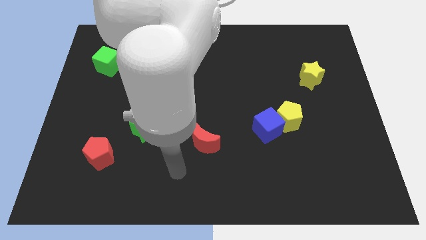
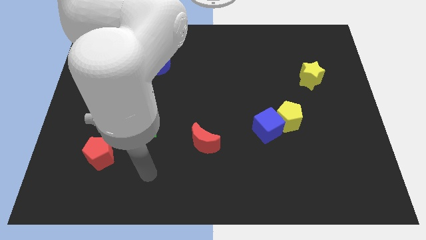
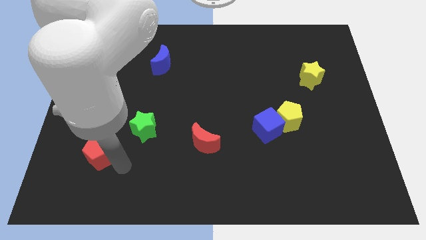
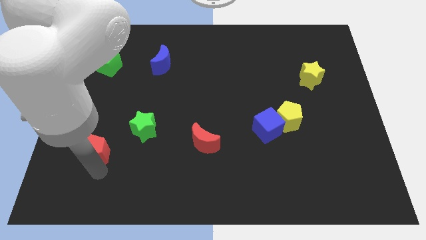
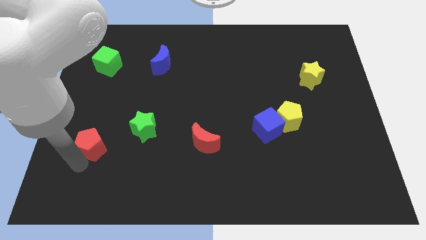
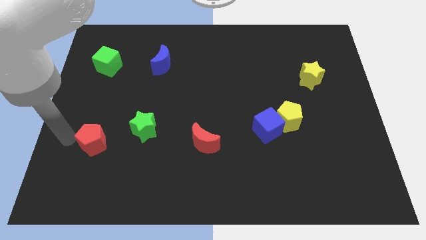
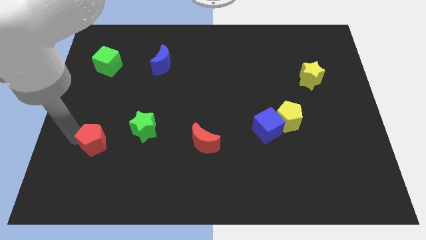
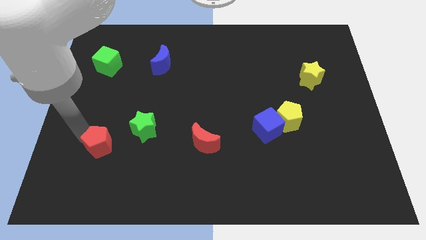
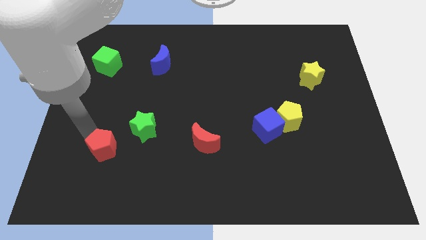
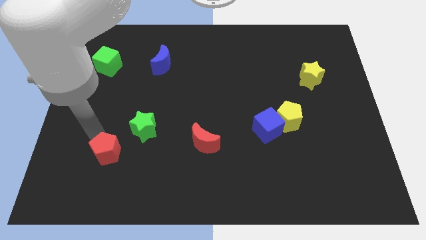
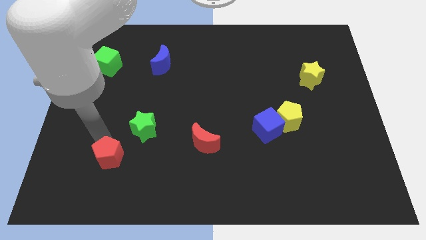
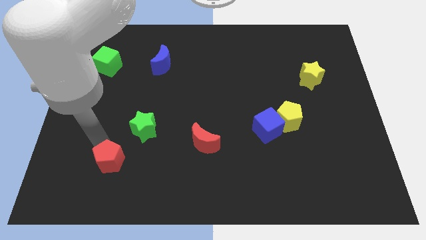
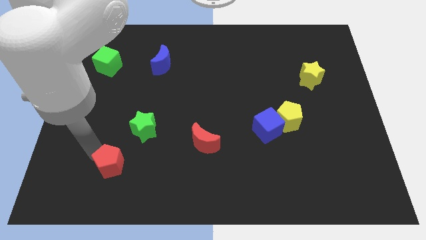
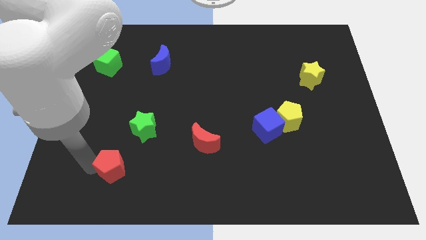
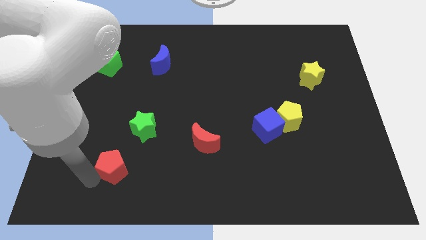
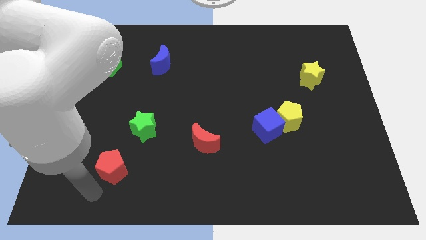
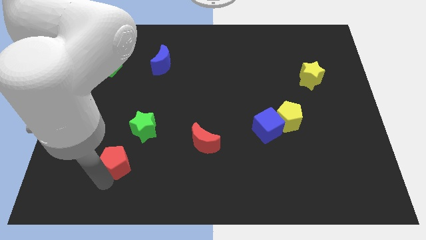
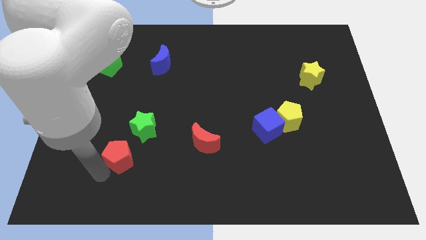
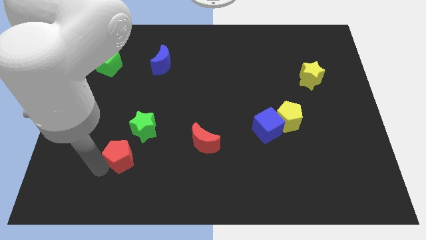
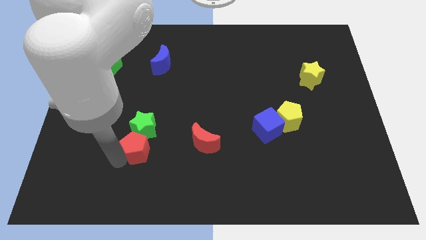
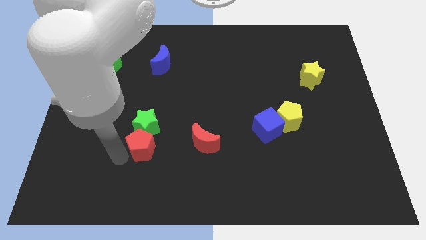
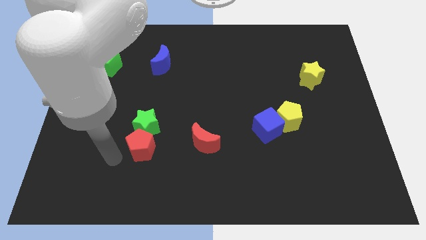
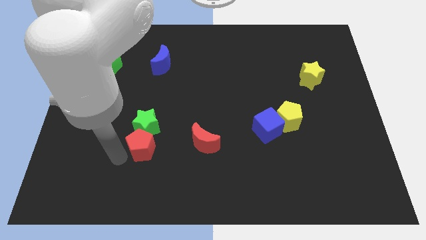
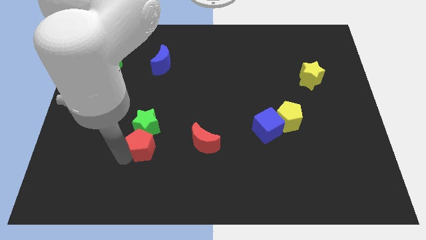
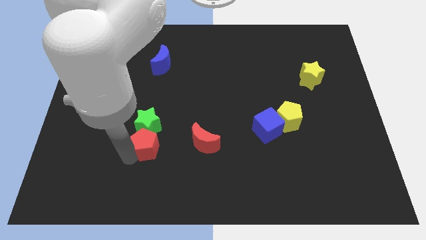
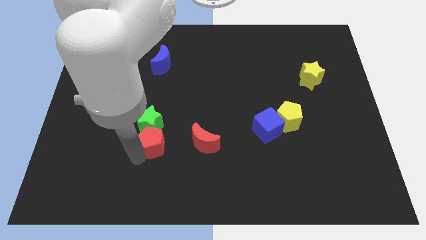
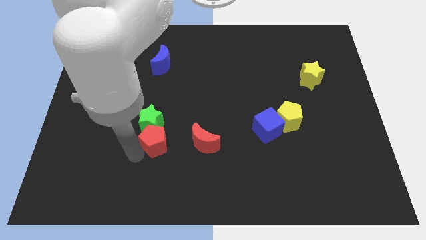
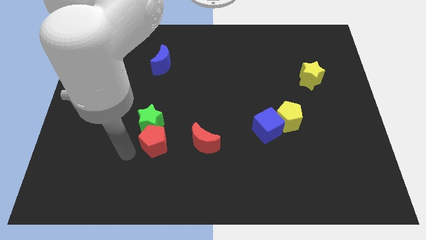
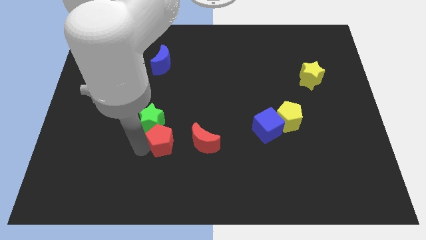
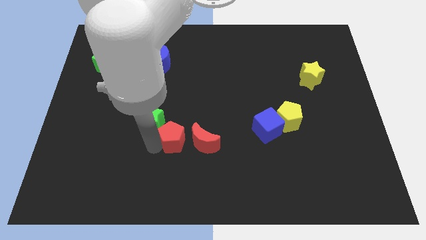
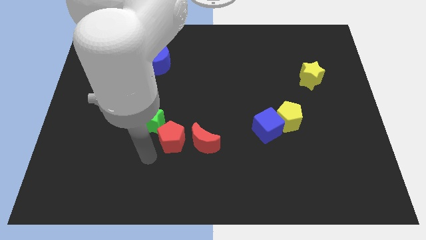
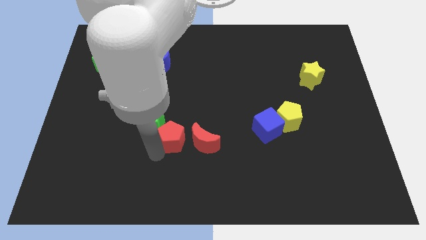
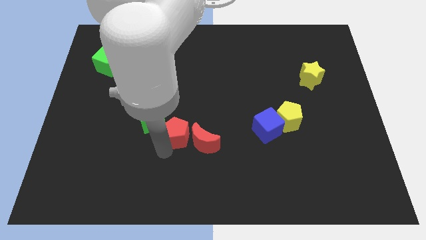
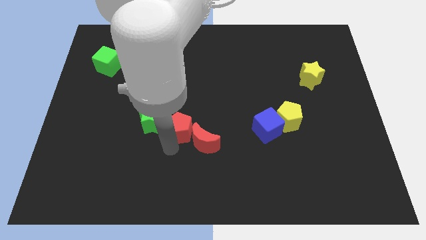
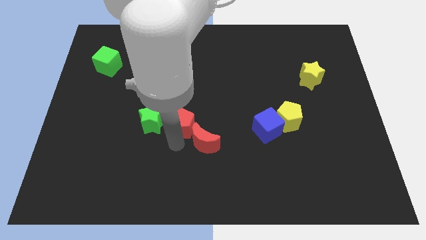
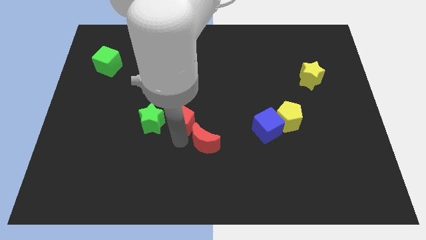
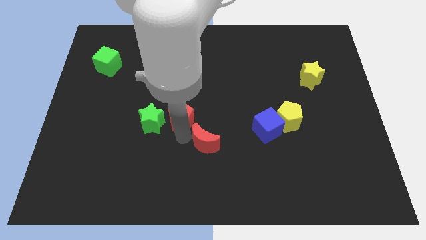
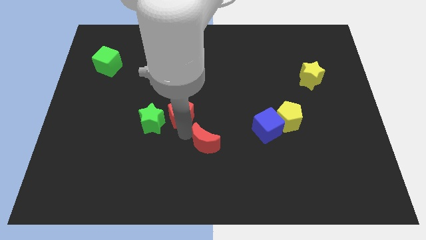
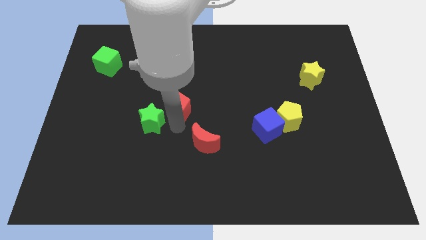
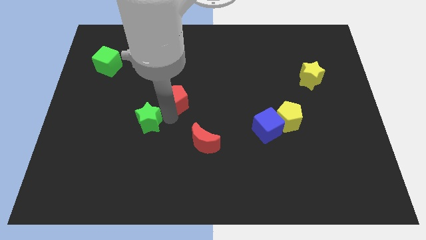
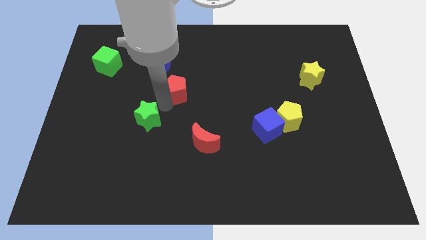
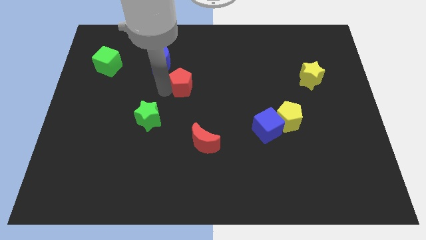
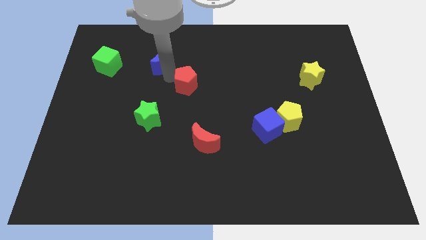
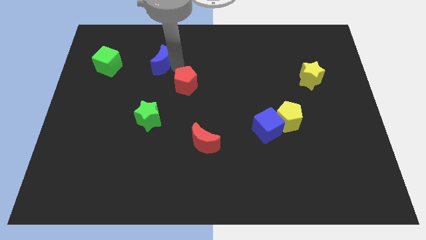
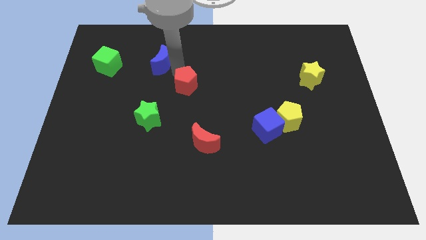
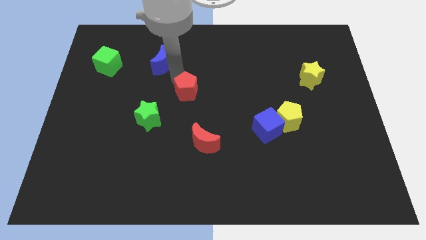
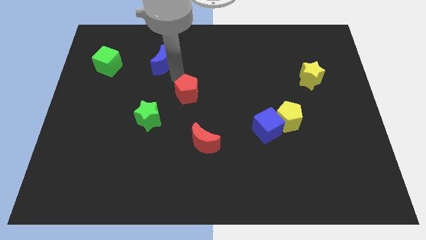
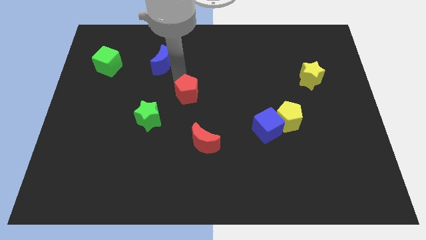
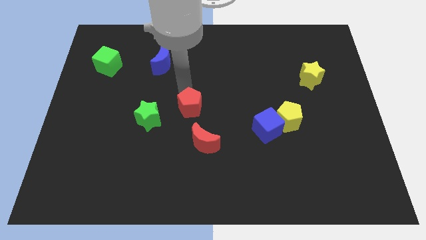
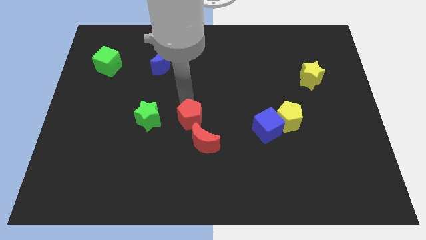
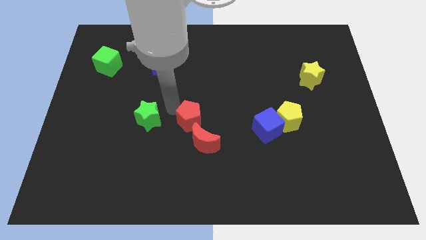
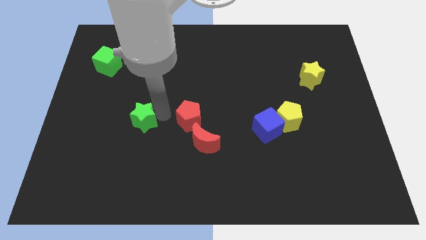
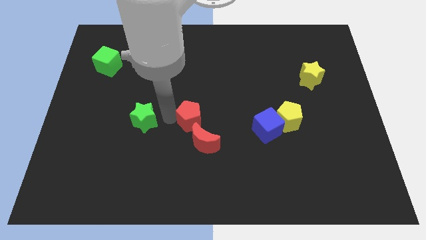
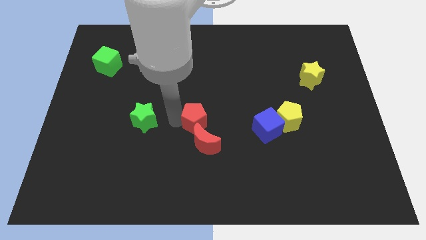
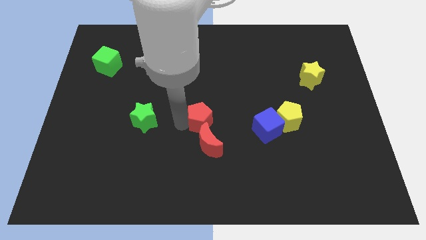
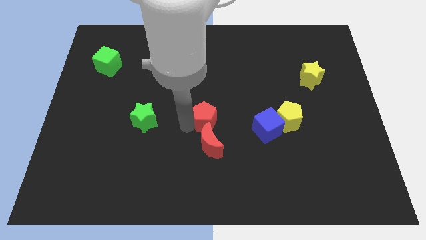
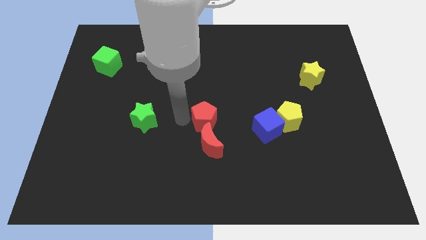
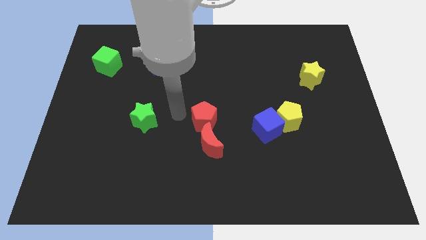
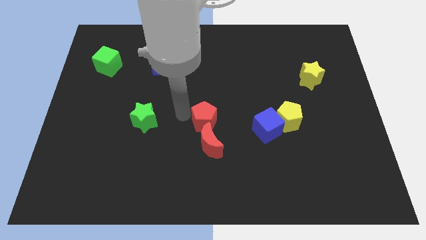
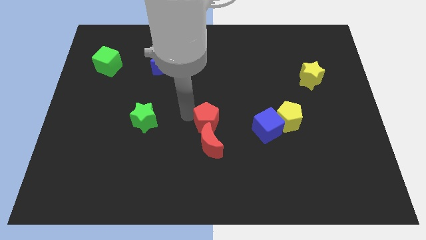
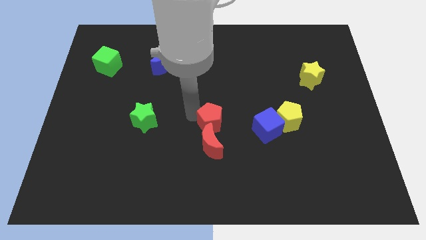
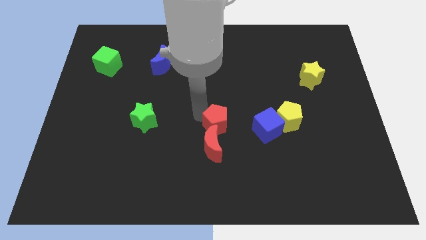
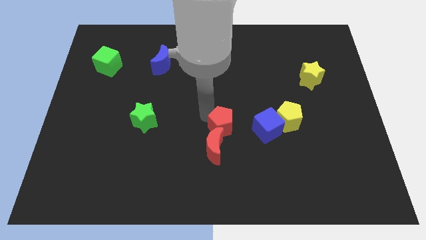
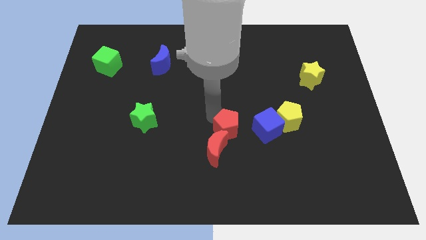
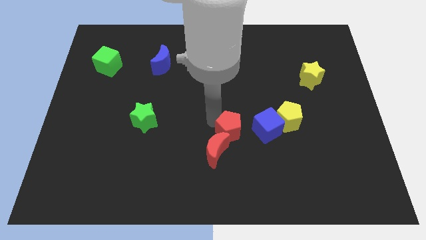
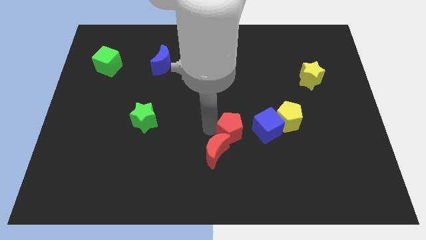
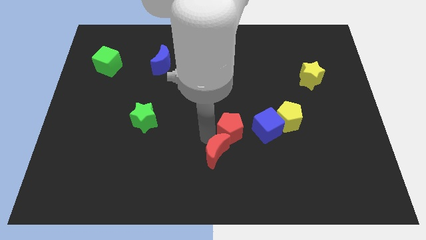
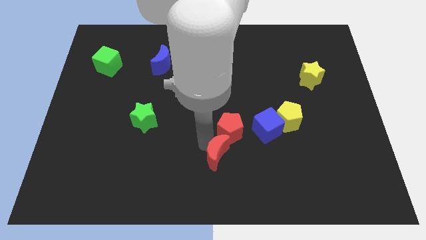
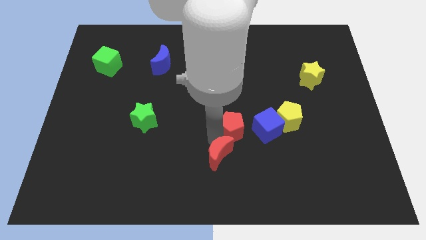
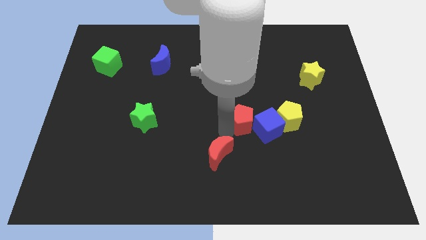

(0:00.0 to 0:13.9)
put the red pentagon next to the blue cube
